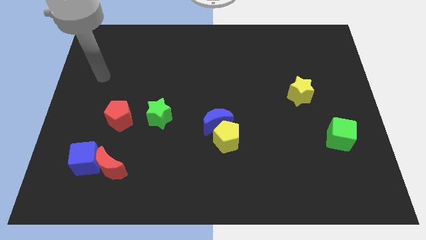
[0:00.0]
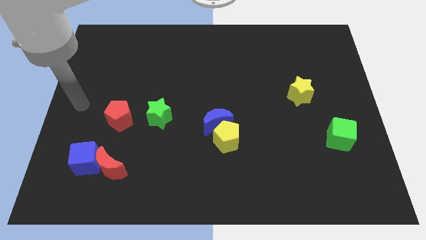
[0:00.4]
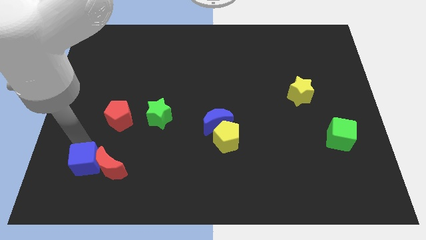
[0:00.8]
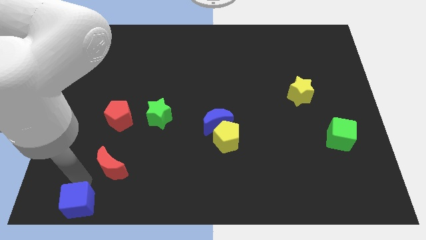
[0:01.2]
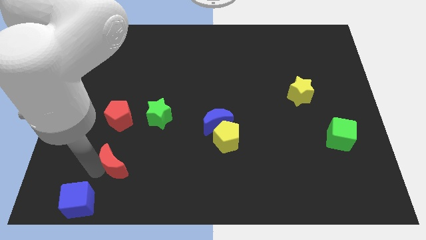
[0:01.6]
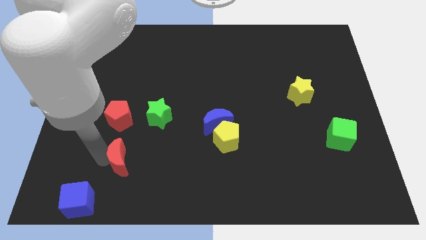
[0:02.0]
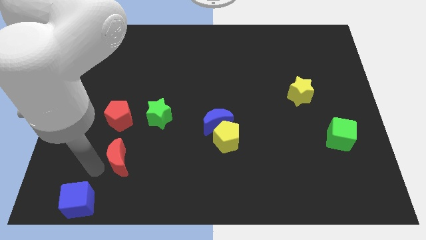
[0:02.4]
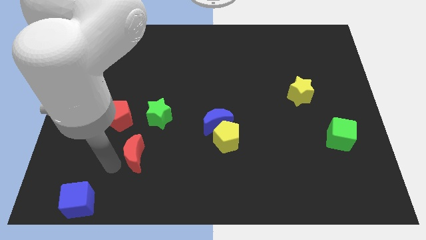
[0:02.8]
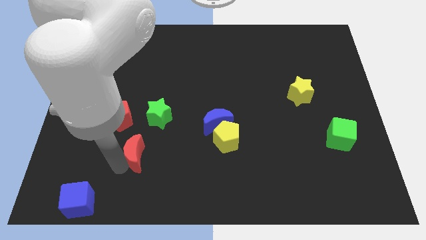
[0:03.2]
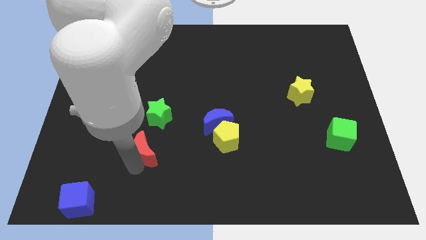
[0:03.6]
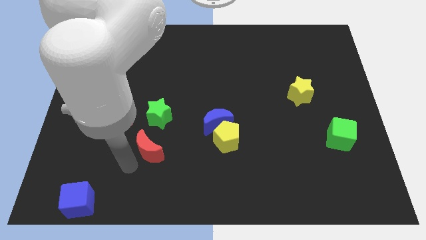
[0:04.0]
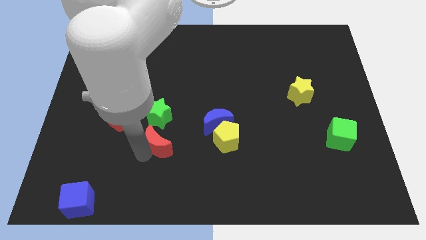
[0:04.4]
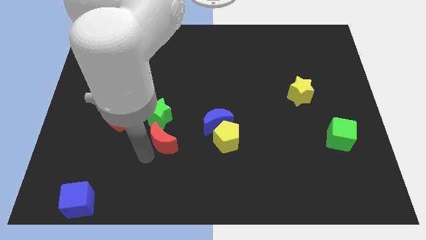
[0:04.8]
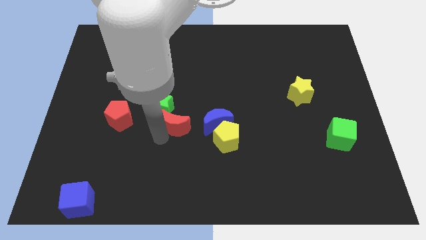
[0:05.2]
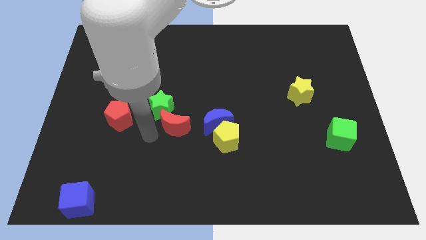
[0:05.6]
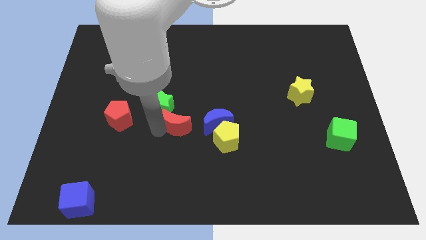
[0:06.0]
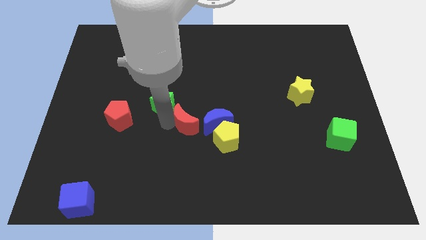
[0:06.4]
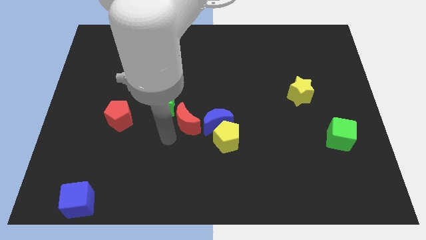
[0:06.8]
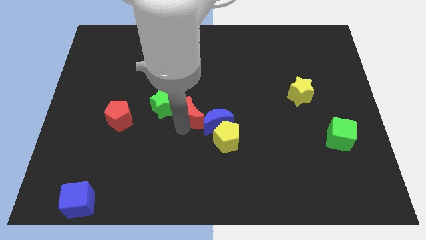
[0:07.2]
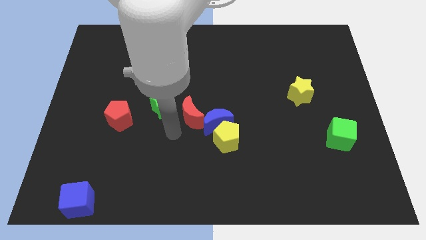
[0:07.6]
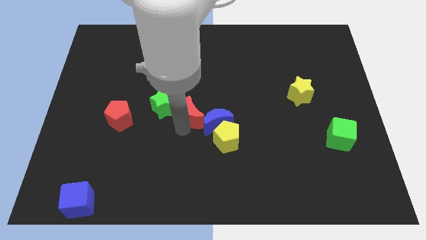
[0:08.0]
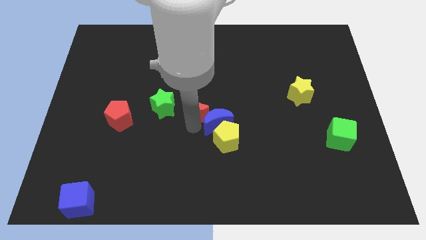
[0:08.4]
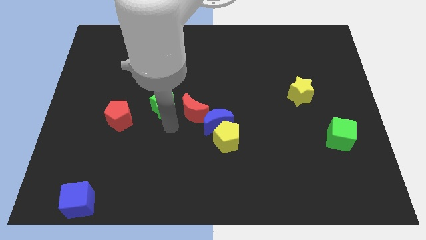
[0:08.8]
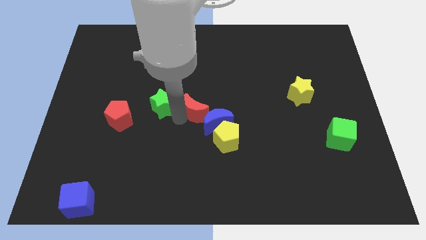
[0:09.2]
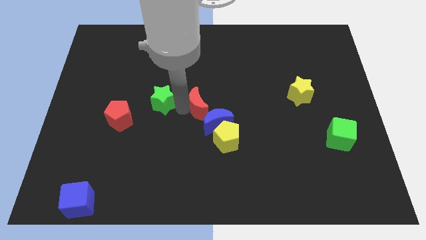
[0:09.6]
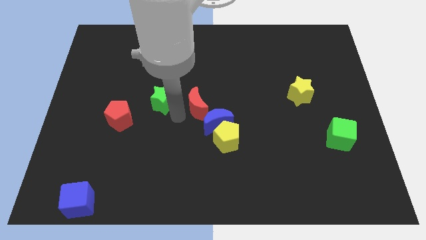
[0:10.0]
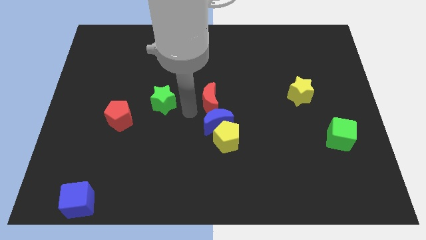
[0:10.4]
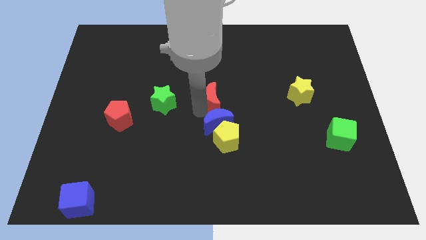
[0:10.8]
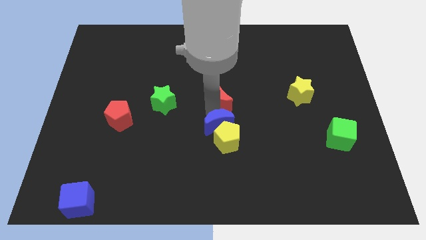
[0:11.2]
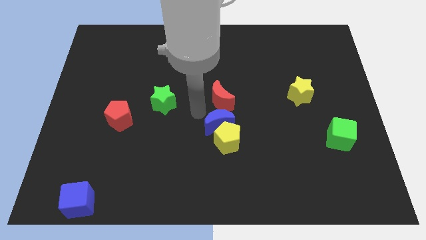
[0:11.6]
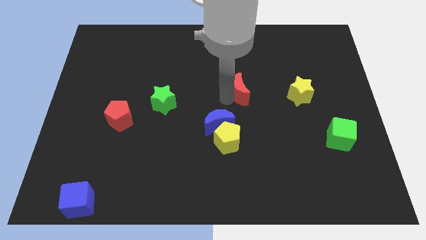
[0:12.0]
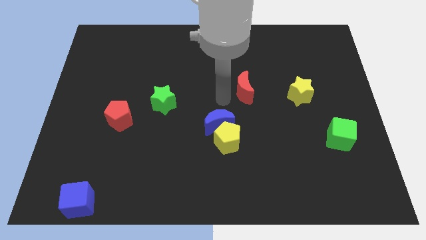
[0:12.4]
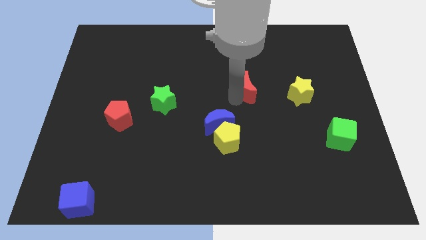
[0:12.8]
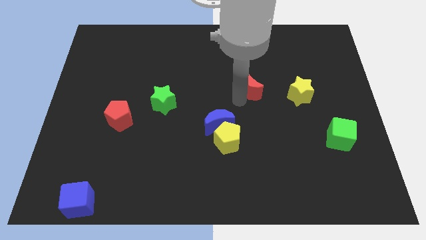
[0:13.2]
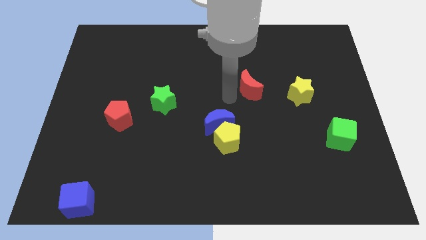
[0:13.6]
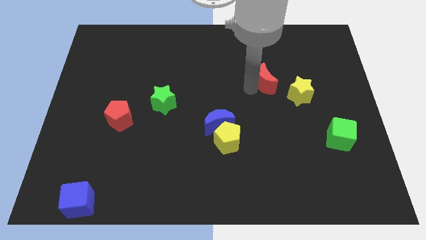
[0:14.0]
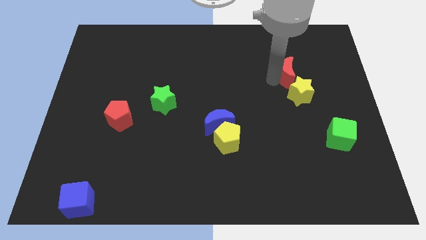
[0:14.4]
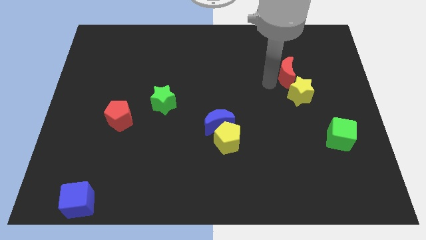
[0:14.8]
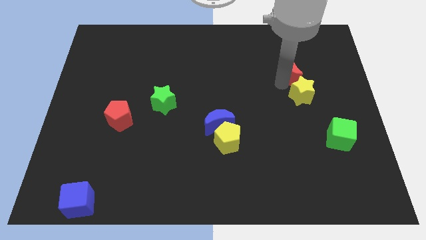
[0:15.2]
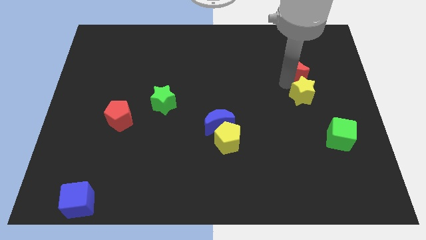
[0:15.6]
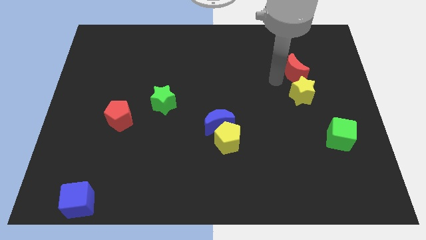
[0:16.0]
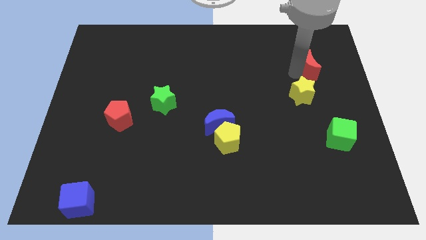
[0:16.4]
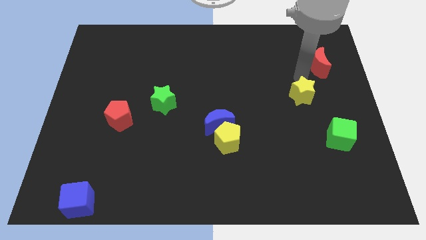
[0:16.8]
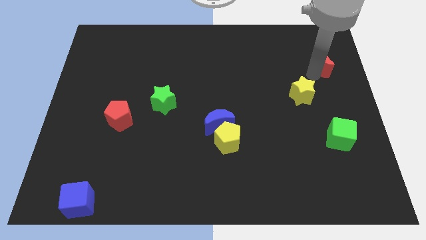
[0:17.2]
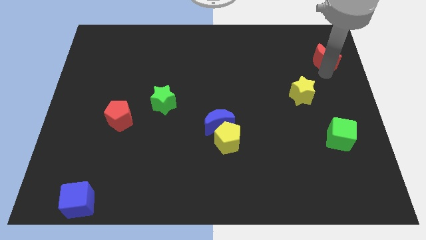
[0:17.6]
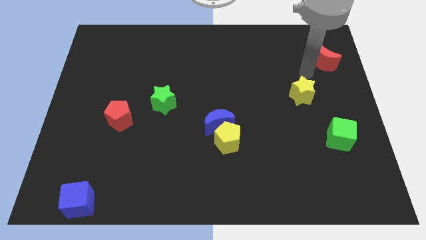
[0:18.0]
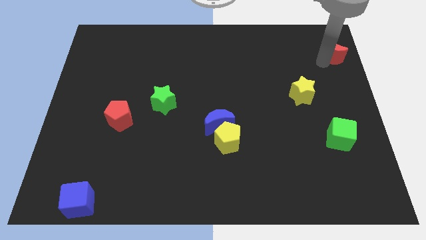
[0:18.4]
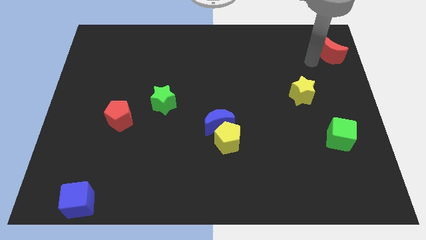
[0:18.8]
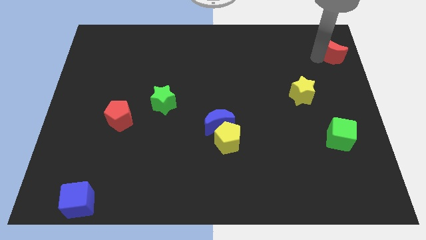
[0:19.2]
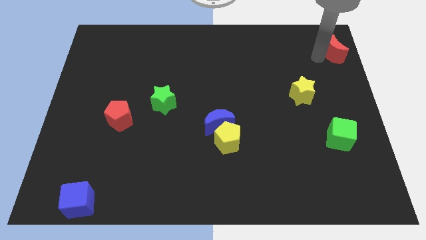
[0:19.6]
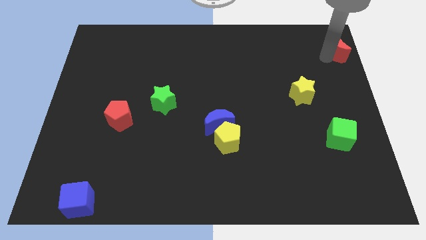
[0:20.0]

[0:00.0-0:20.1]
slide the red moon to the top right

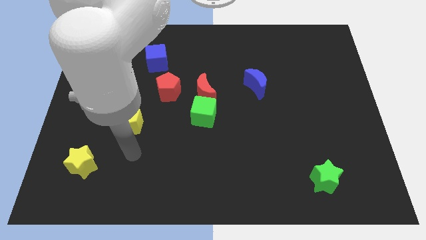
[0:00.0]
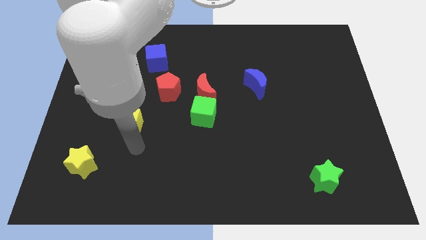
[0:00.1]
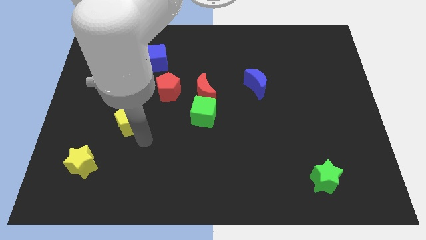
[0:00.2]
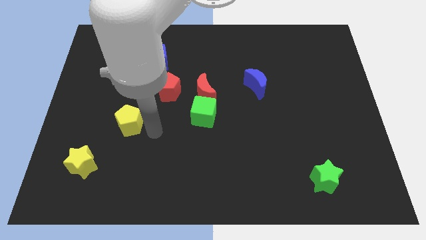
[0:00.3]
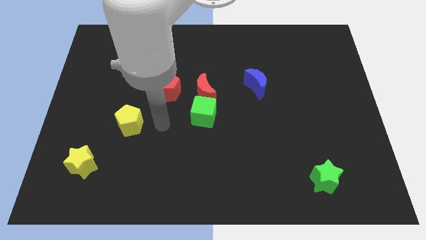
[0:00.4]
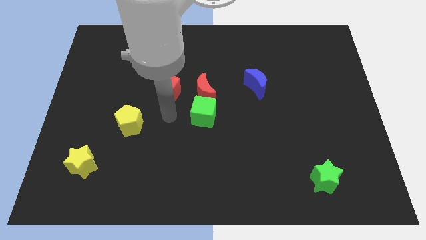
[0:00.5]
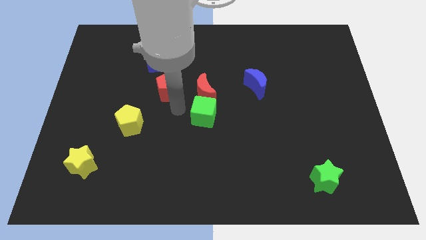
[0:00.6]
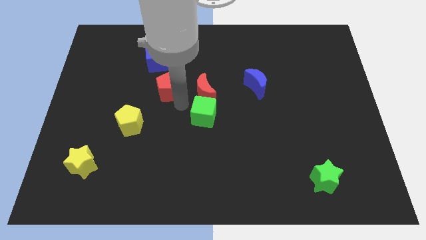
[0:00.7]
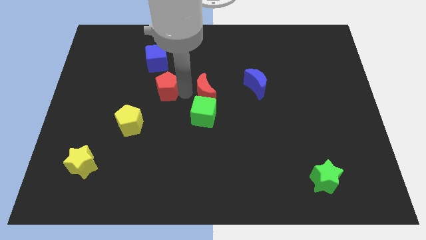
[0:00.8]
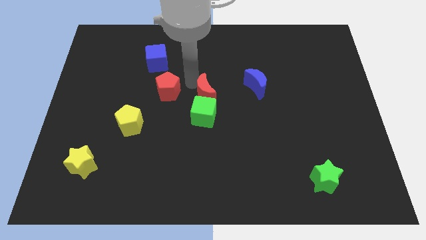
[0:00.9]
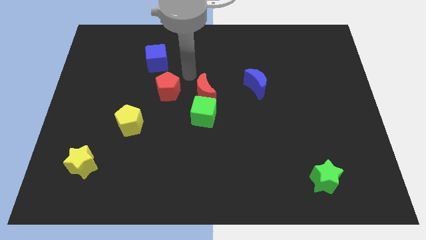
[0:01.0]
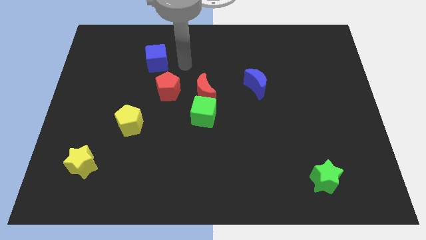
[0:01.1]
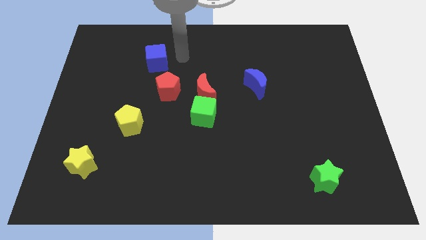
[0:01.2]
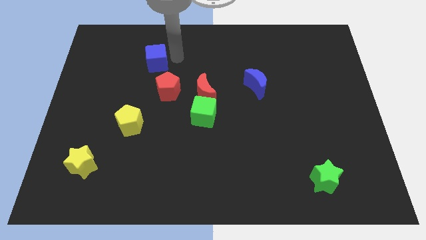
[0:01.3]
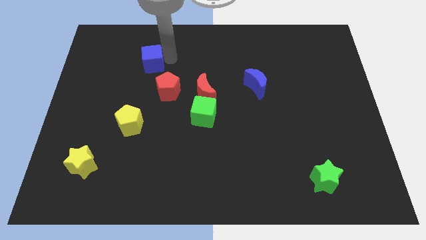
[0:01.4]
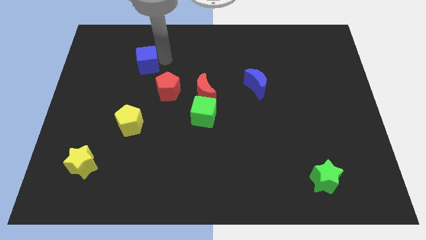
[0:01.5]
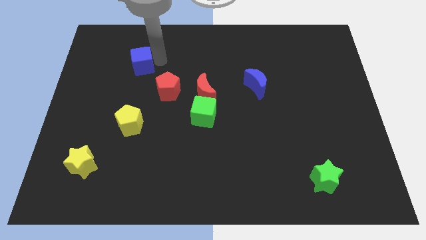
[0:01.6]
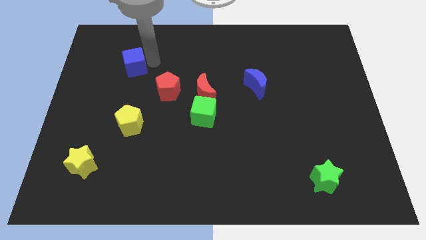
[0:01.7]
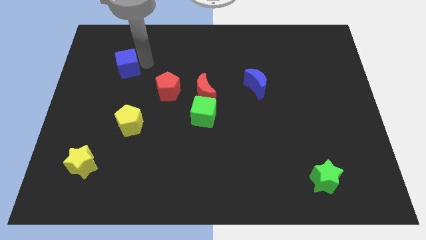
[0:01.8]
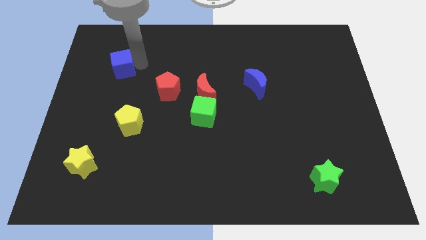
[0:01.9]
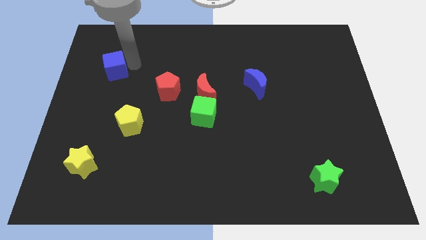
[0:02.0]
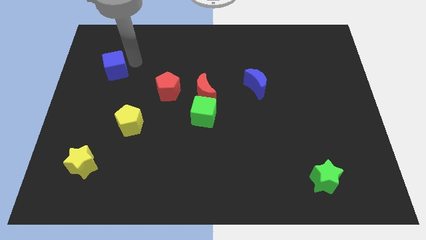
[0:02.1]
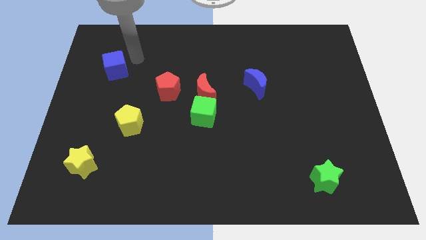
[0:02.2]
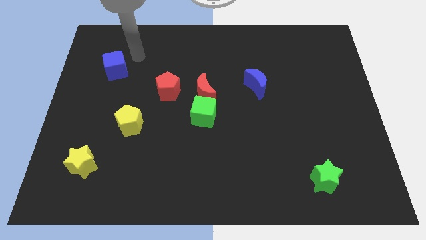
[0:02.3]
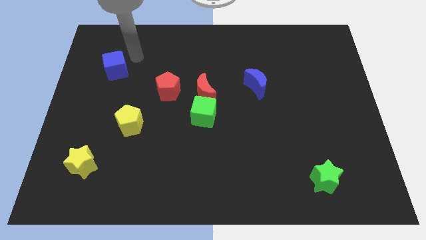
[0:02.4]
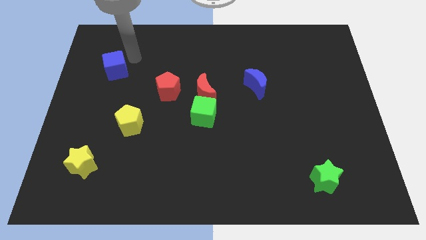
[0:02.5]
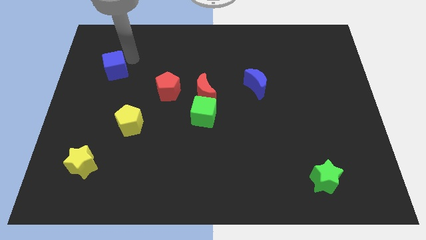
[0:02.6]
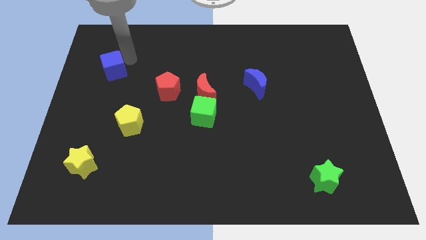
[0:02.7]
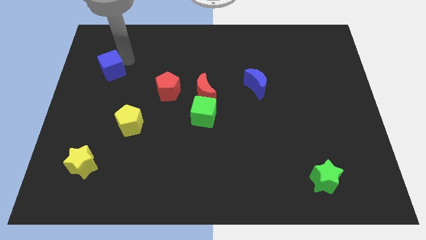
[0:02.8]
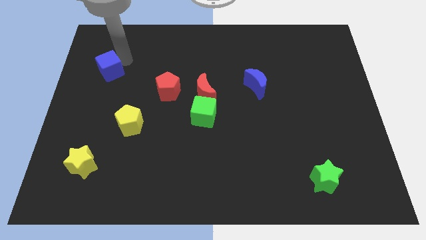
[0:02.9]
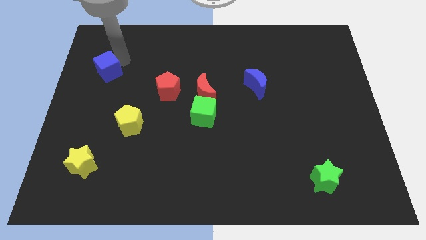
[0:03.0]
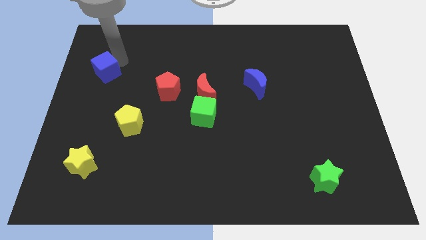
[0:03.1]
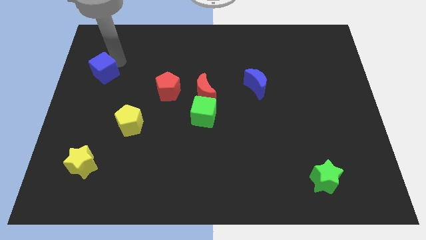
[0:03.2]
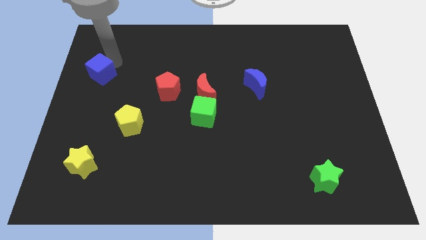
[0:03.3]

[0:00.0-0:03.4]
push the blue cube to the center left
